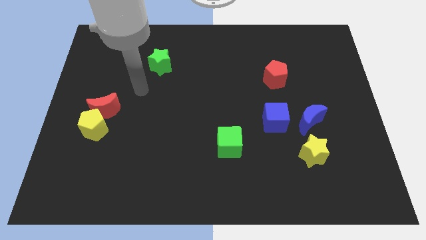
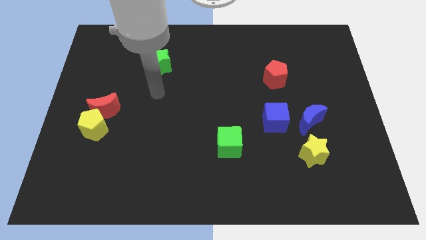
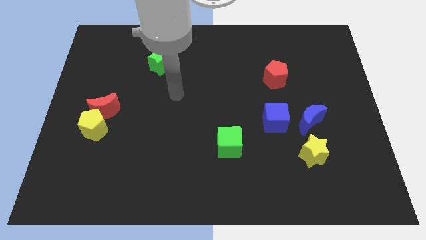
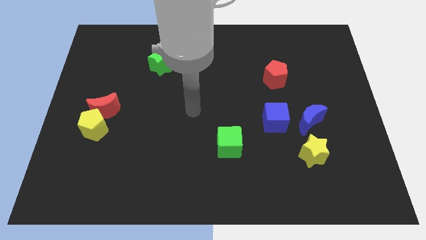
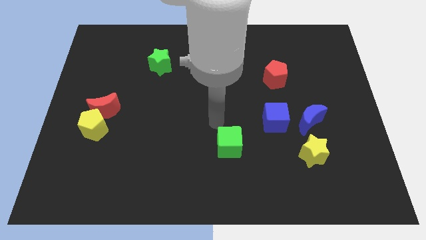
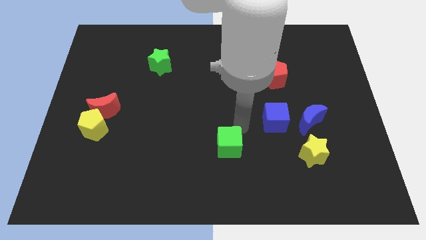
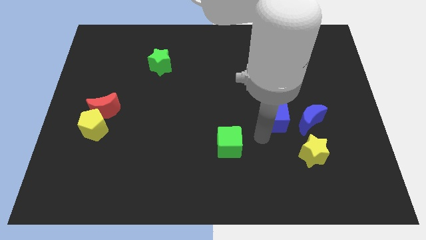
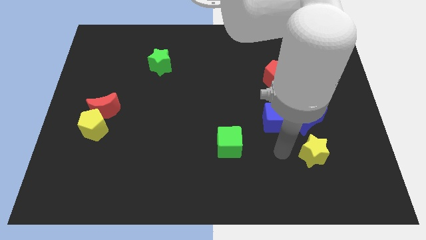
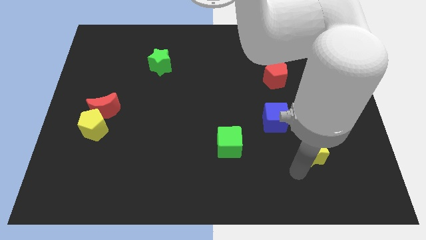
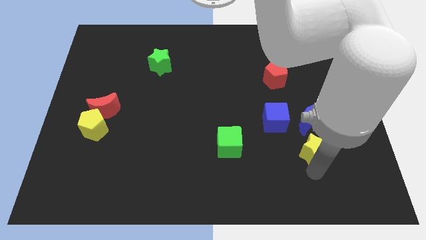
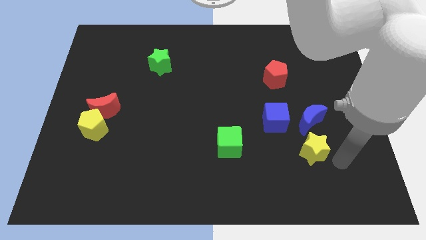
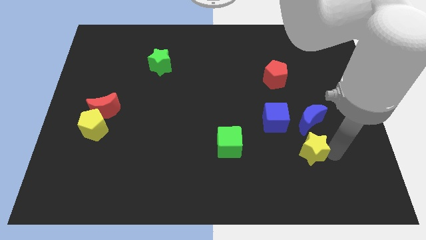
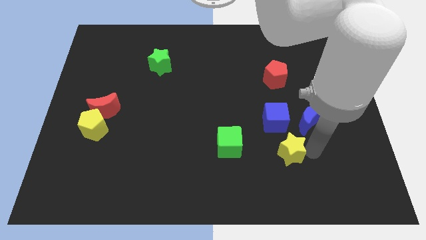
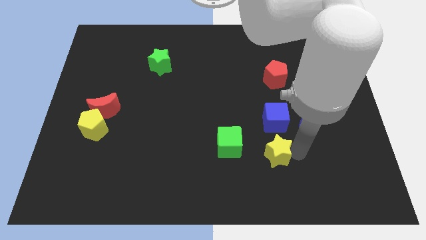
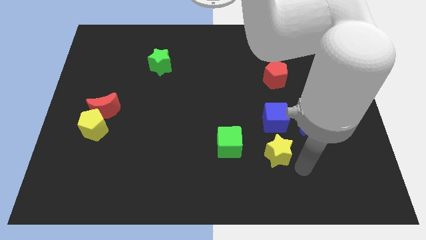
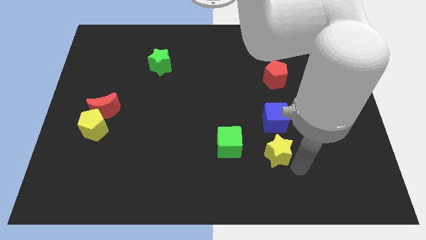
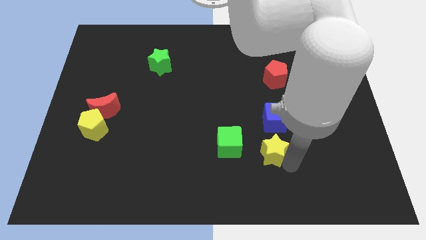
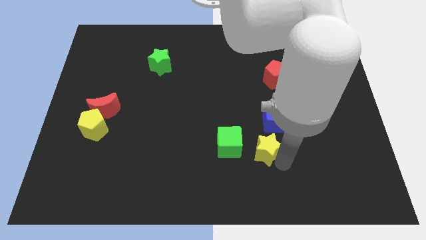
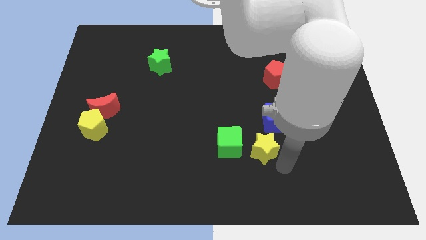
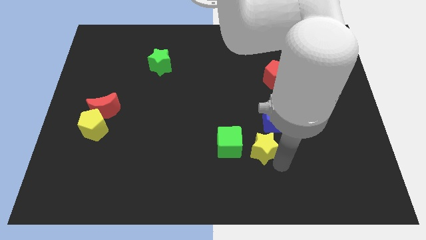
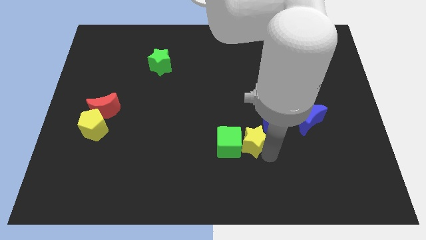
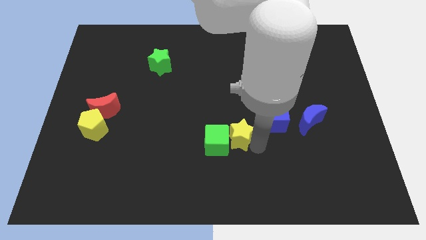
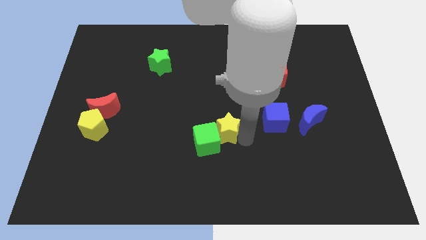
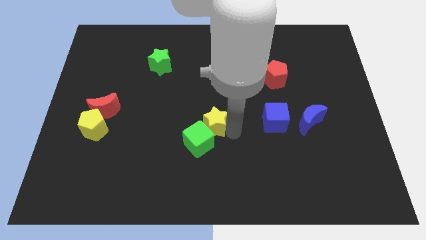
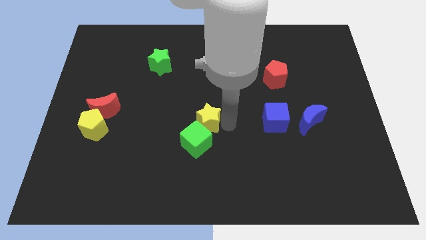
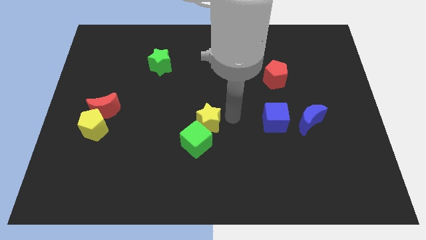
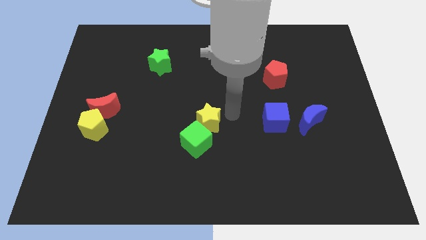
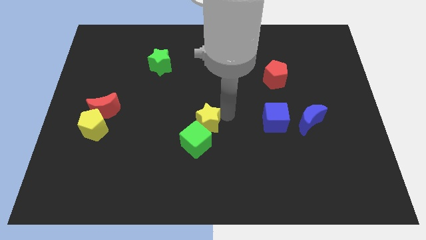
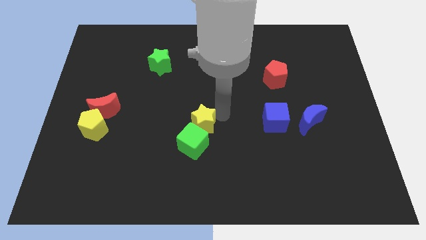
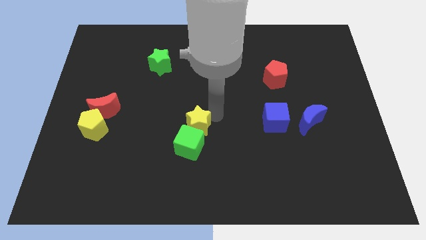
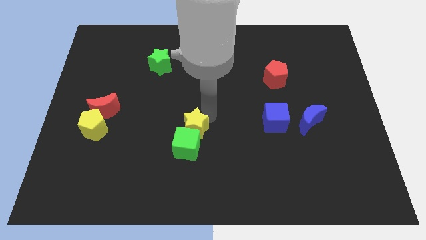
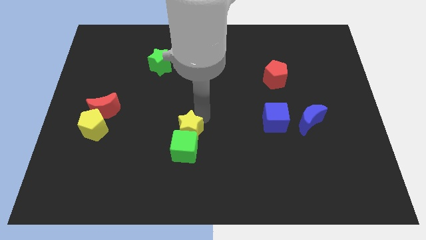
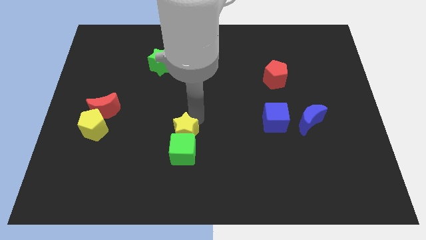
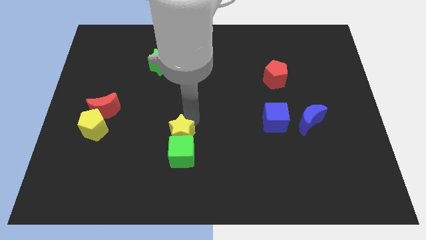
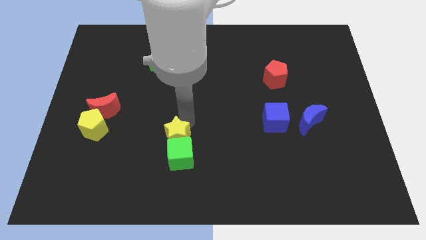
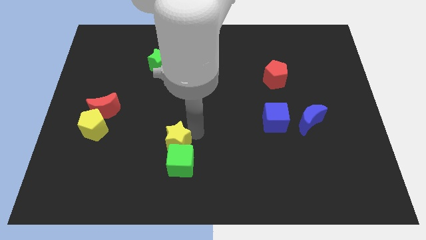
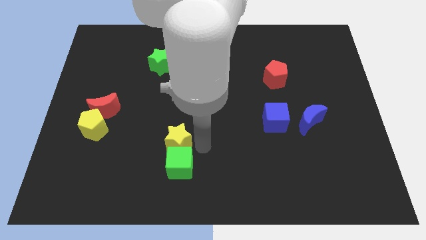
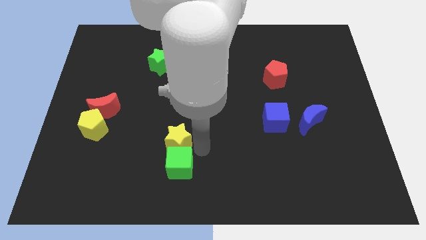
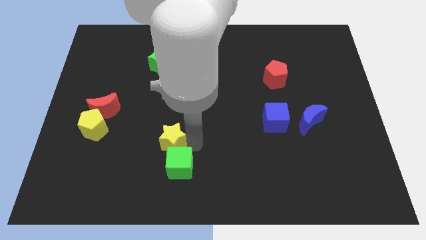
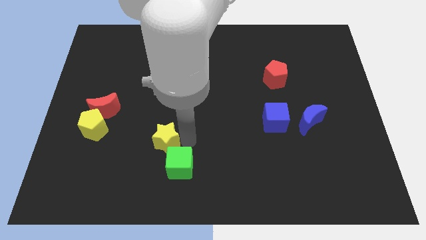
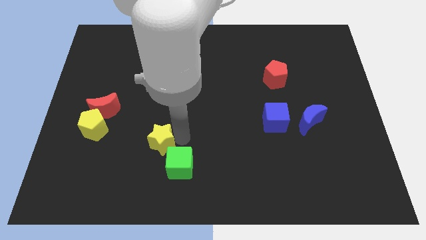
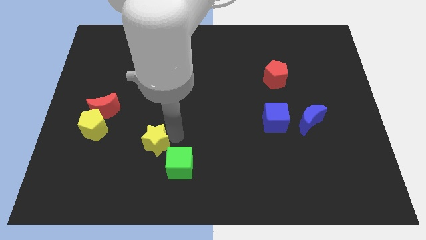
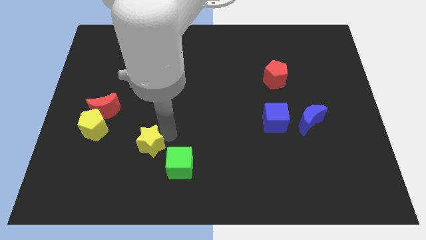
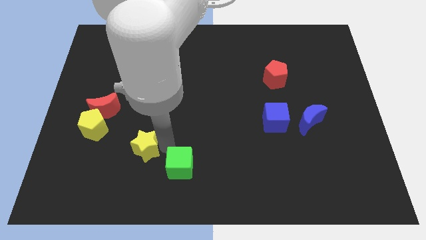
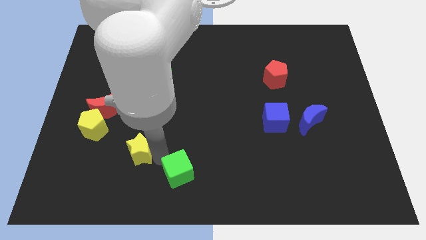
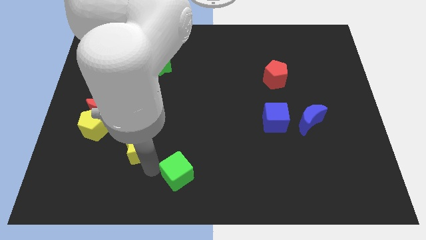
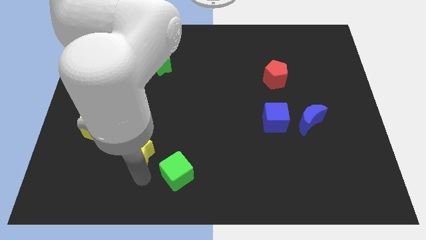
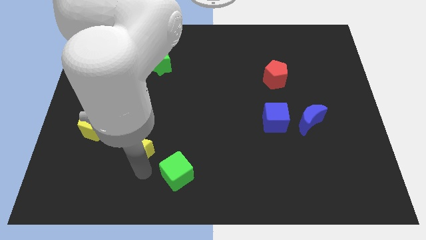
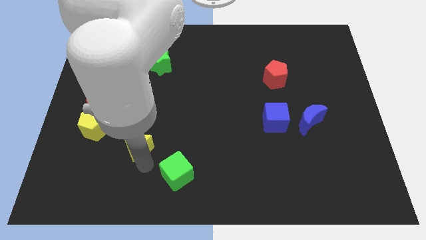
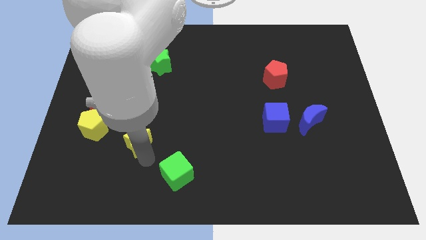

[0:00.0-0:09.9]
slide the yellow star to the bottom right side of the red moon

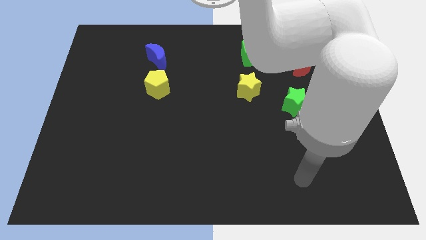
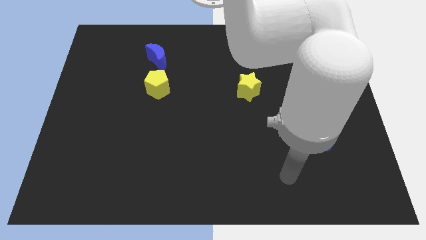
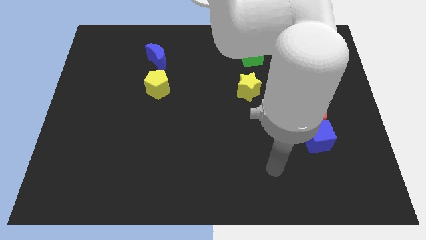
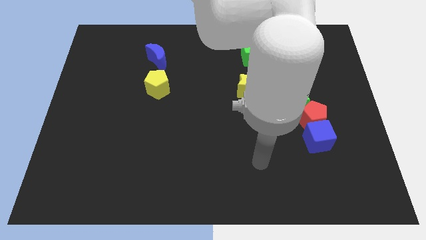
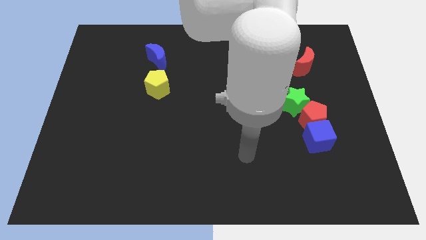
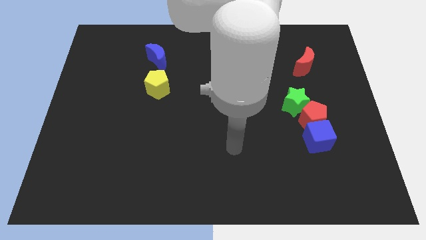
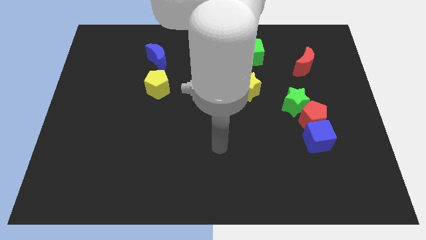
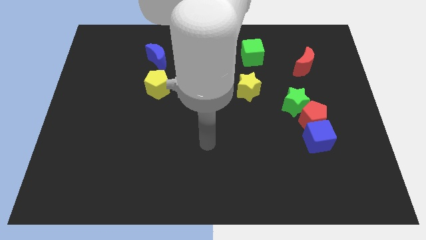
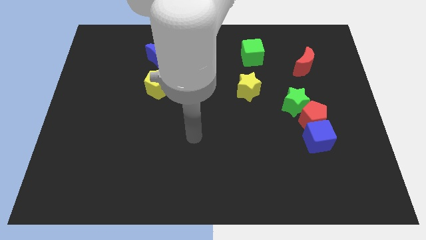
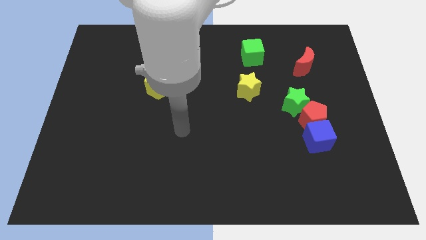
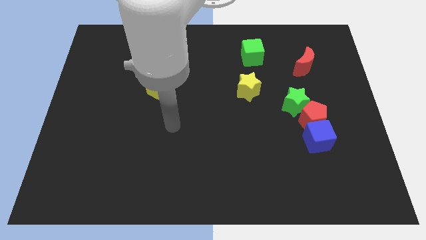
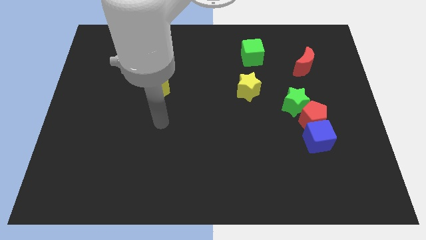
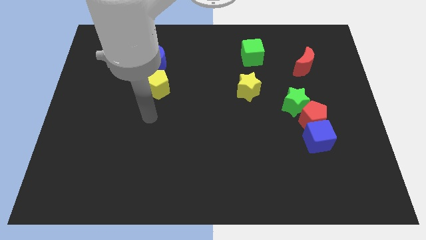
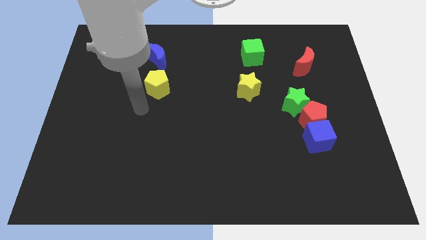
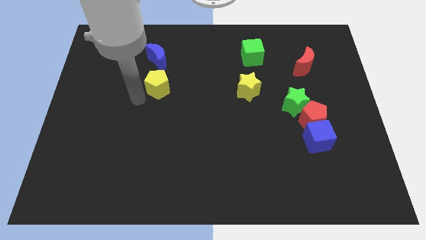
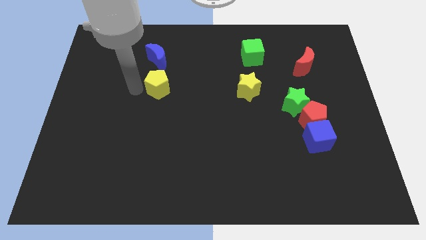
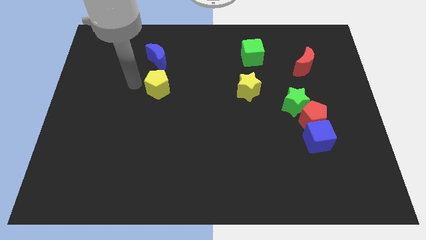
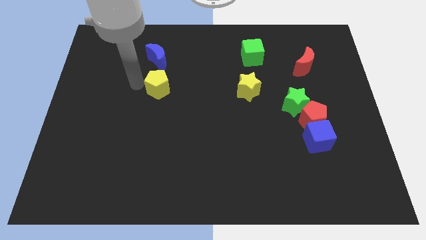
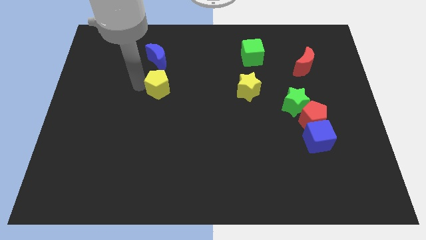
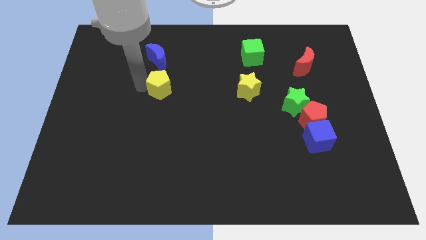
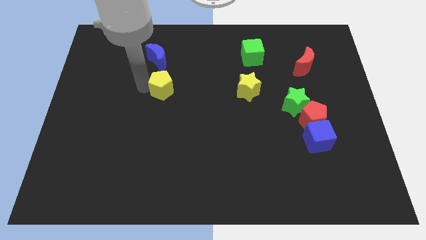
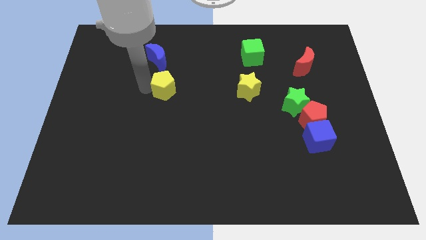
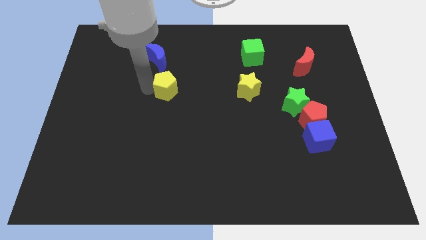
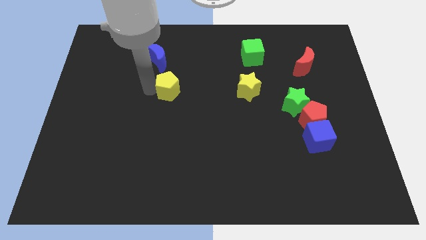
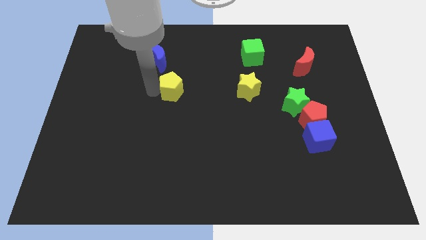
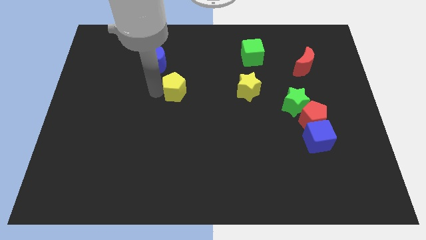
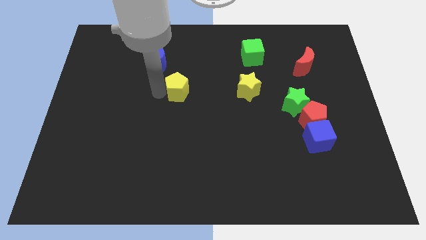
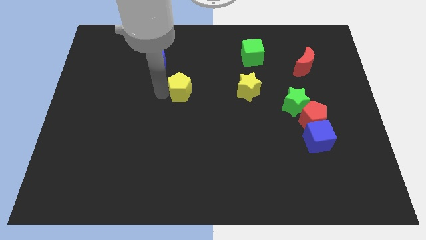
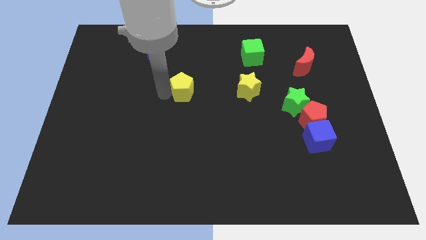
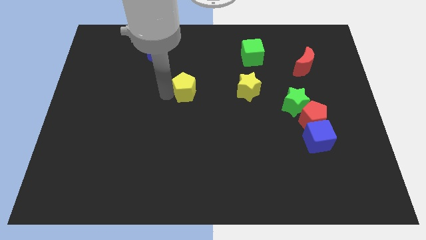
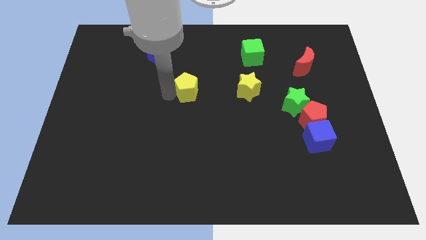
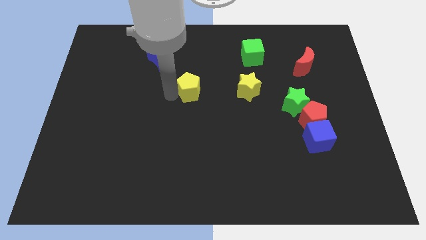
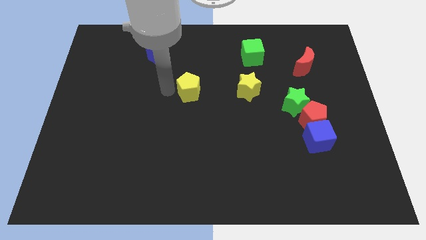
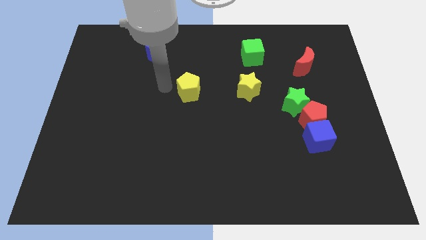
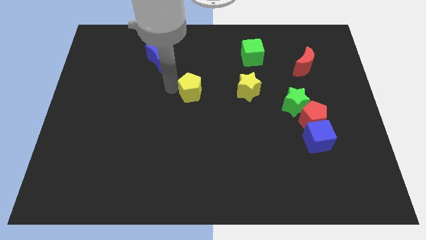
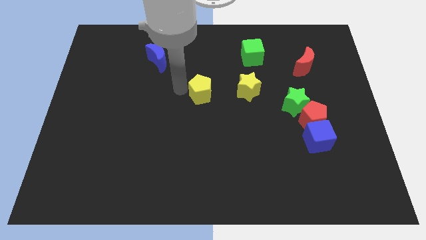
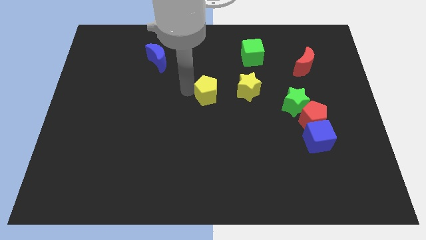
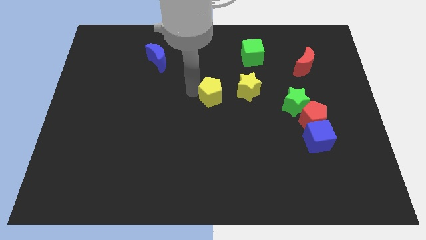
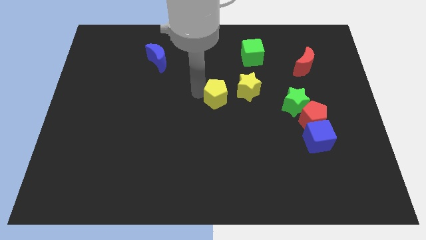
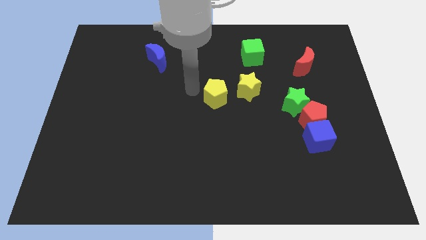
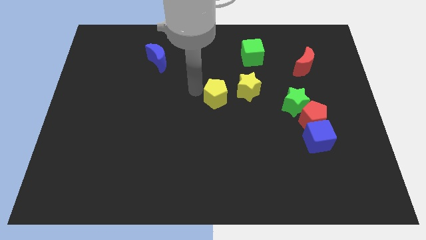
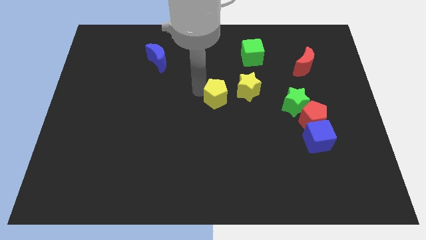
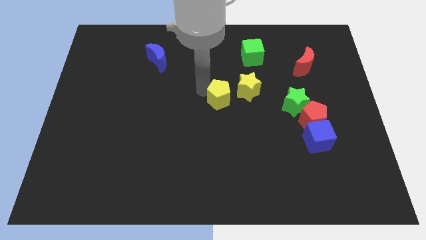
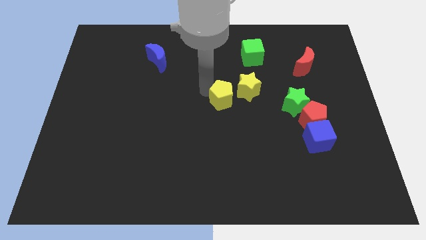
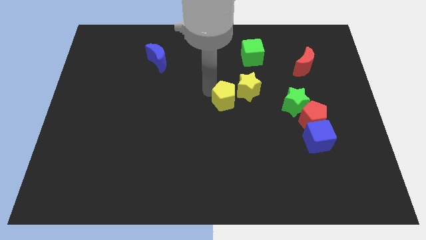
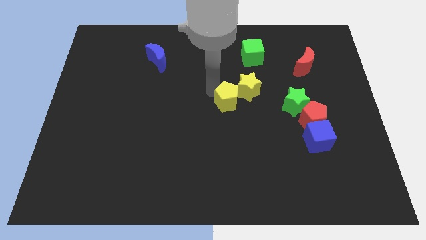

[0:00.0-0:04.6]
slide the yellow pentagon to the left side of the green star
